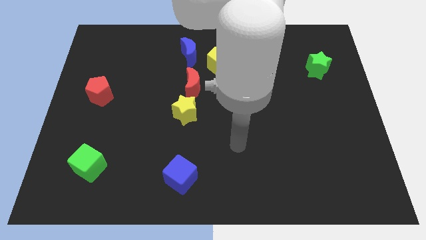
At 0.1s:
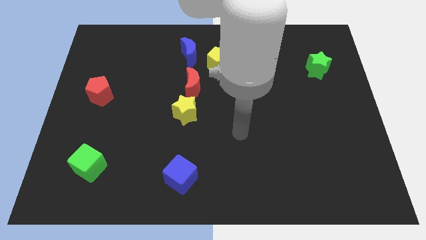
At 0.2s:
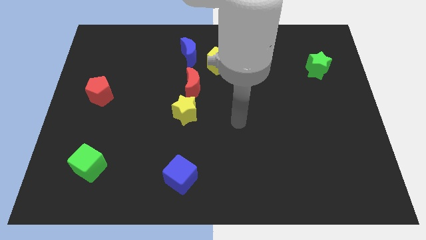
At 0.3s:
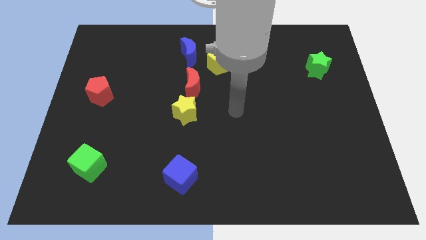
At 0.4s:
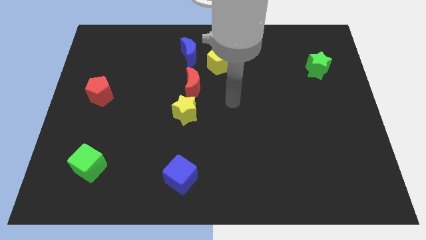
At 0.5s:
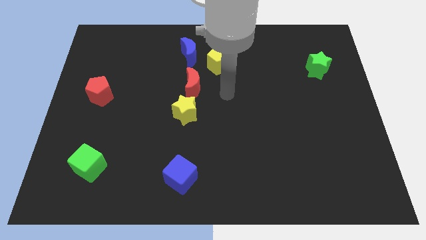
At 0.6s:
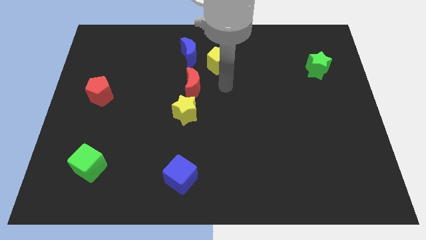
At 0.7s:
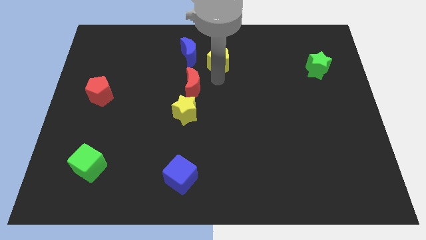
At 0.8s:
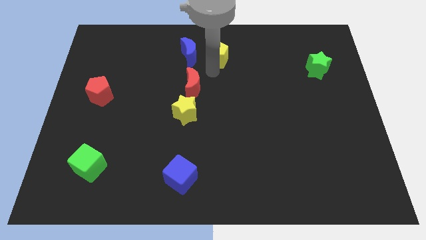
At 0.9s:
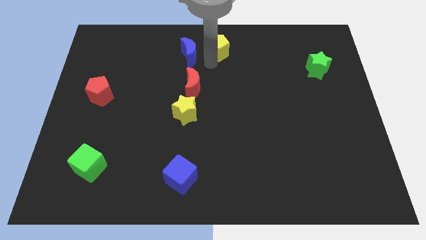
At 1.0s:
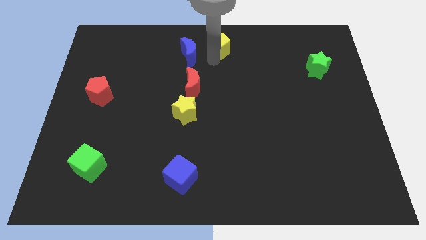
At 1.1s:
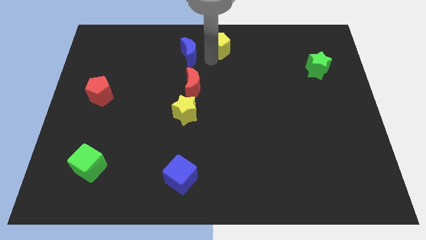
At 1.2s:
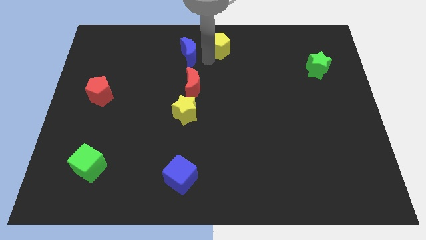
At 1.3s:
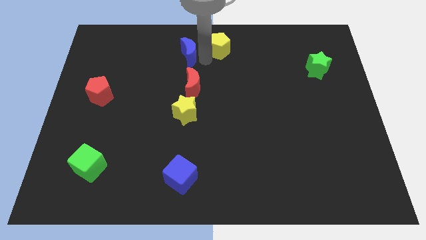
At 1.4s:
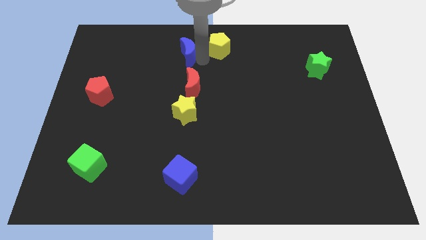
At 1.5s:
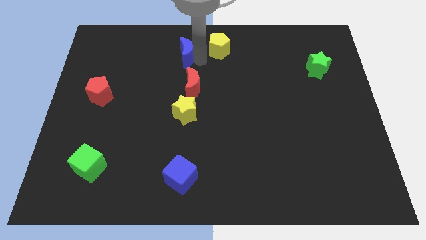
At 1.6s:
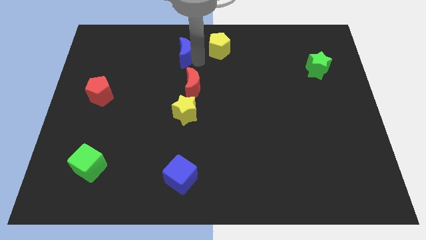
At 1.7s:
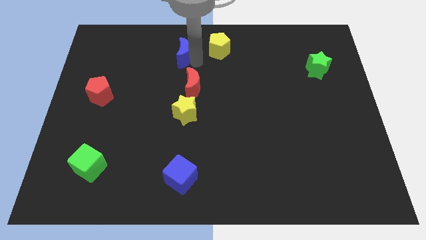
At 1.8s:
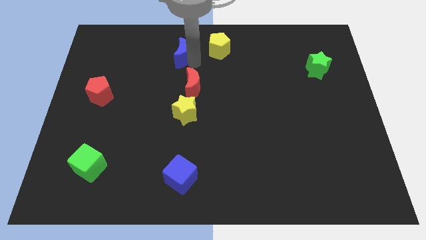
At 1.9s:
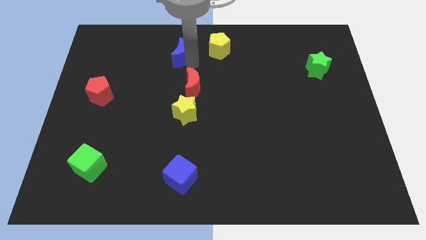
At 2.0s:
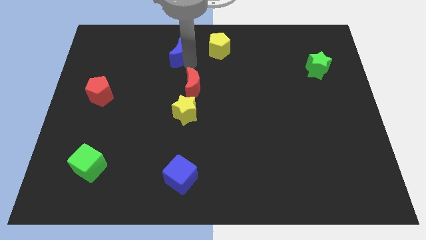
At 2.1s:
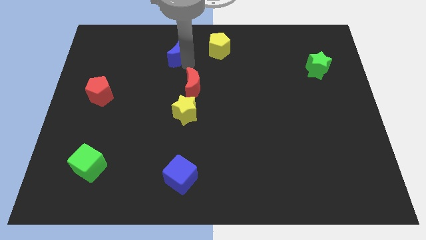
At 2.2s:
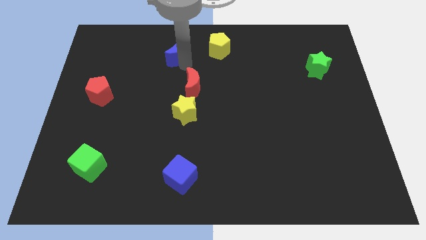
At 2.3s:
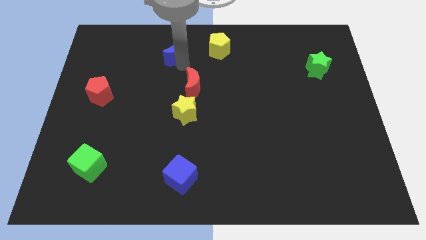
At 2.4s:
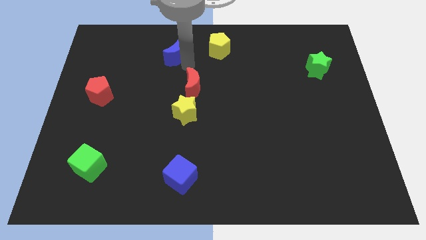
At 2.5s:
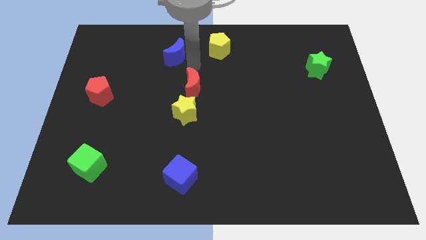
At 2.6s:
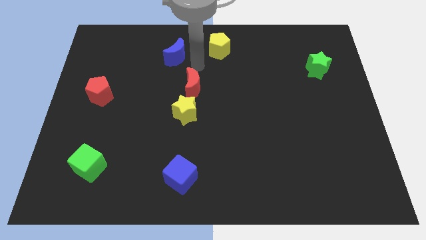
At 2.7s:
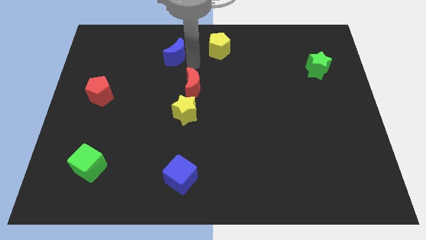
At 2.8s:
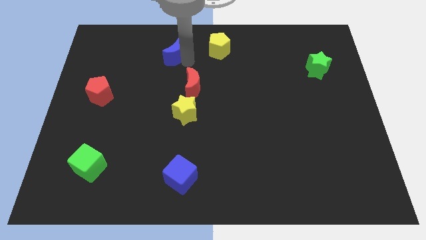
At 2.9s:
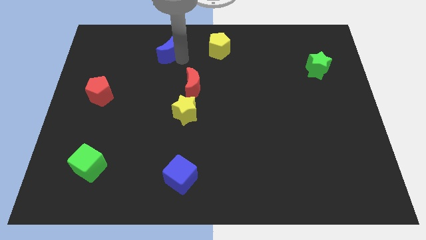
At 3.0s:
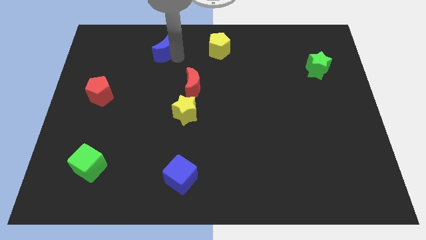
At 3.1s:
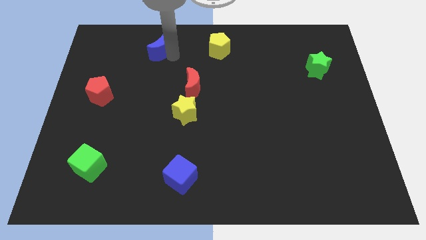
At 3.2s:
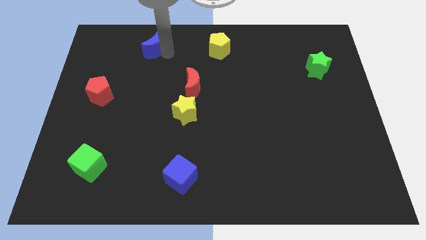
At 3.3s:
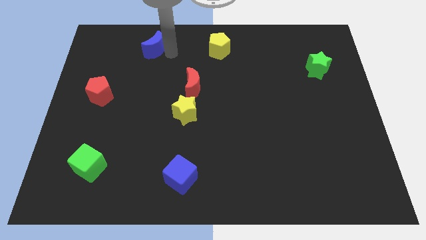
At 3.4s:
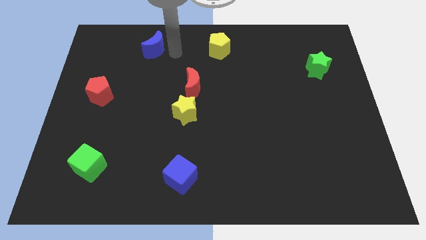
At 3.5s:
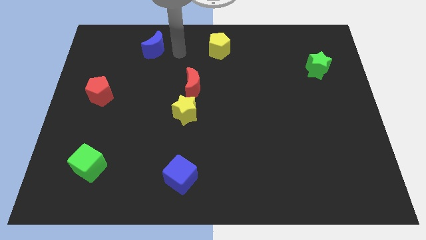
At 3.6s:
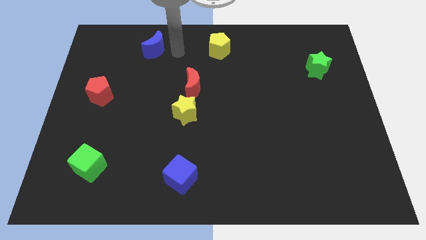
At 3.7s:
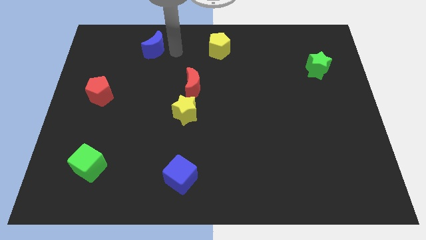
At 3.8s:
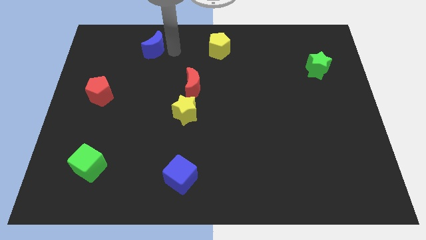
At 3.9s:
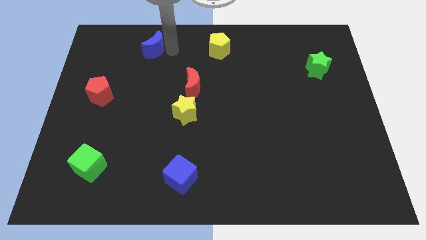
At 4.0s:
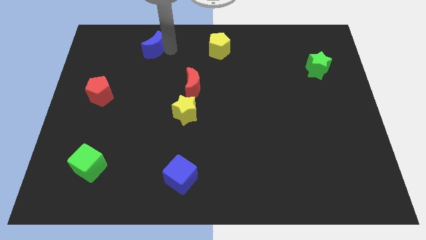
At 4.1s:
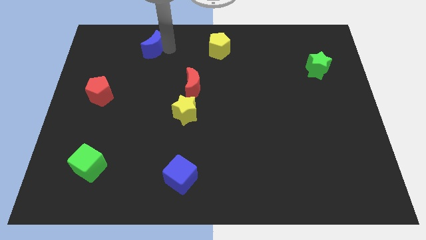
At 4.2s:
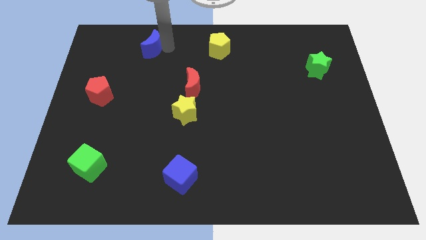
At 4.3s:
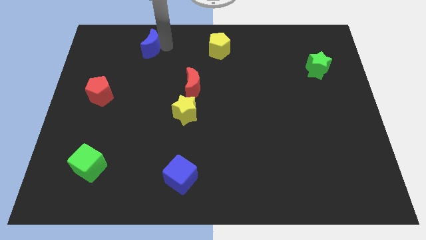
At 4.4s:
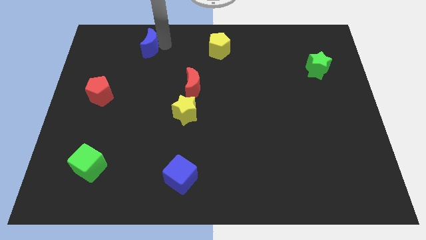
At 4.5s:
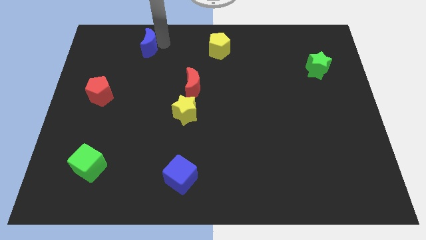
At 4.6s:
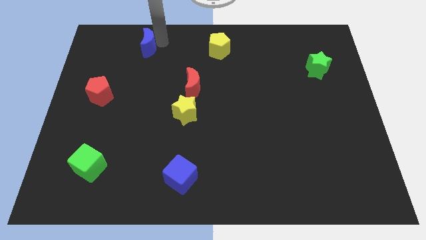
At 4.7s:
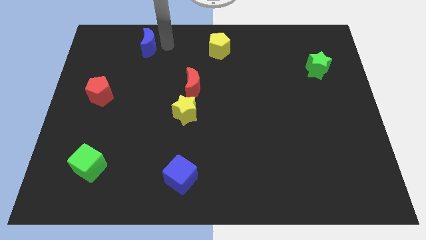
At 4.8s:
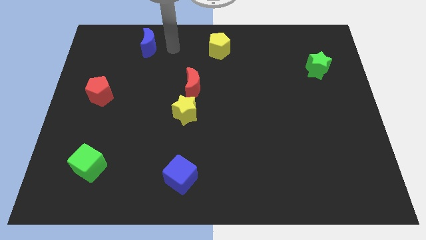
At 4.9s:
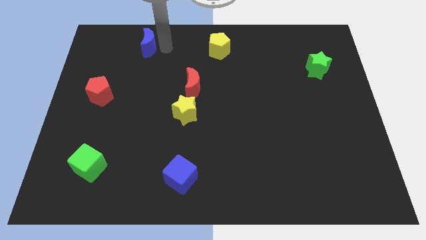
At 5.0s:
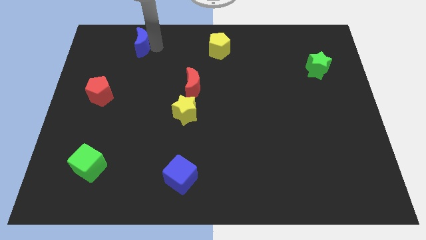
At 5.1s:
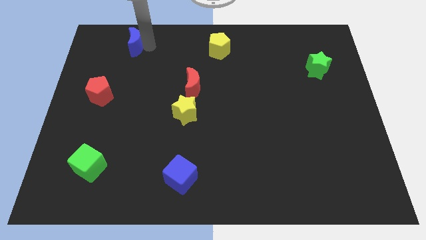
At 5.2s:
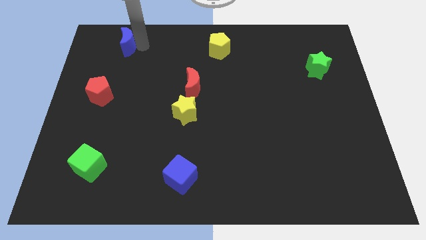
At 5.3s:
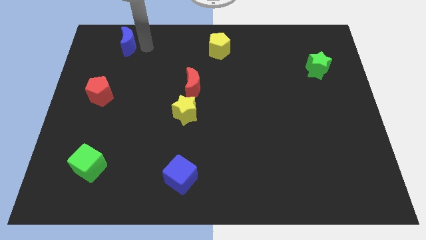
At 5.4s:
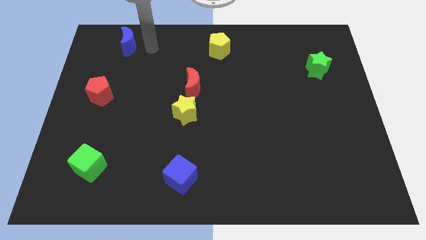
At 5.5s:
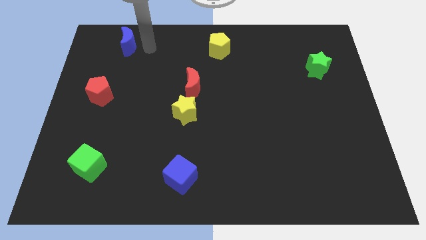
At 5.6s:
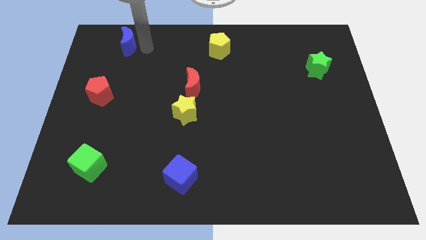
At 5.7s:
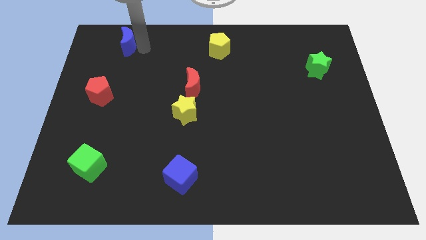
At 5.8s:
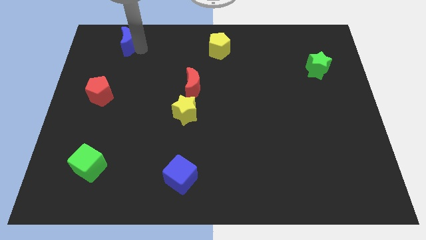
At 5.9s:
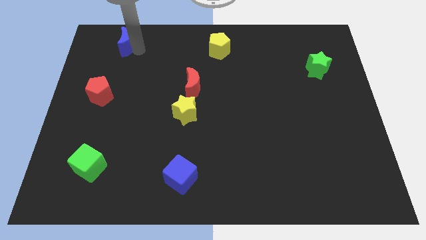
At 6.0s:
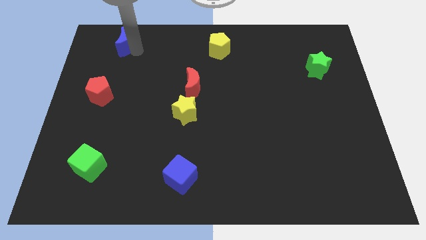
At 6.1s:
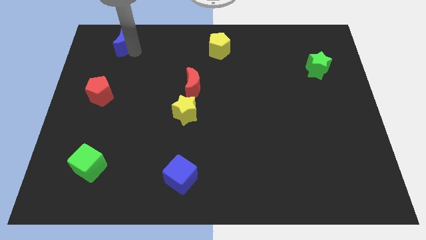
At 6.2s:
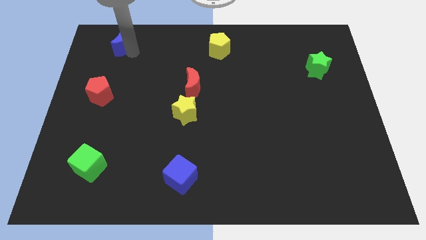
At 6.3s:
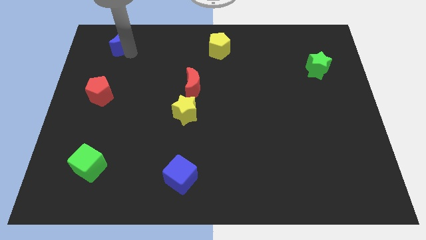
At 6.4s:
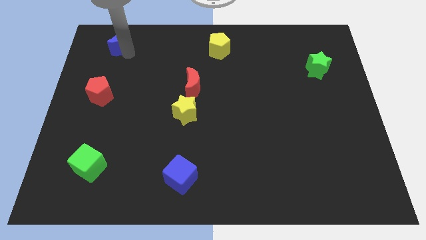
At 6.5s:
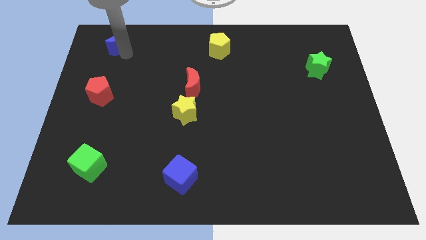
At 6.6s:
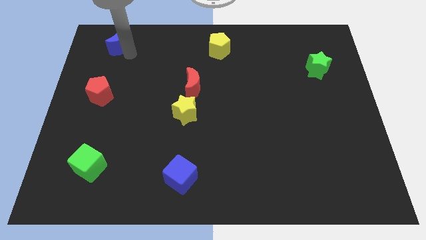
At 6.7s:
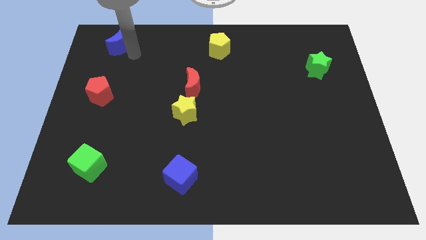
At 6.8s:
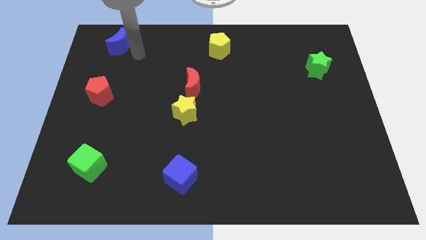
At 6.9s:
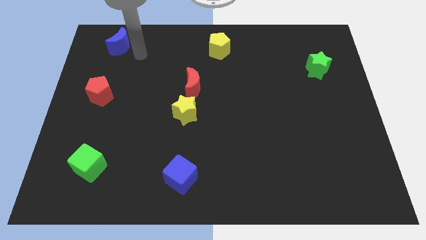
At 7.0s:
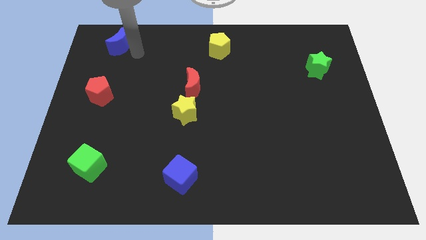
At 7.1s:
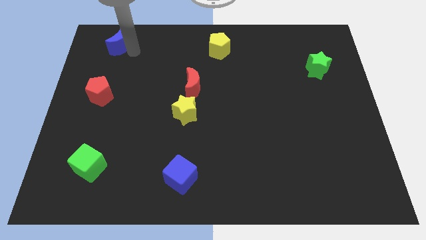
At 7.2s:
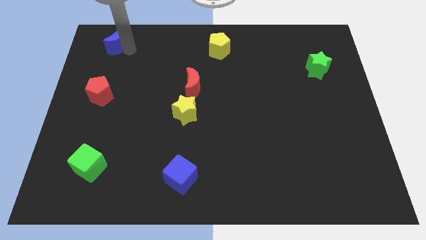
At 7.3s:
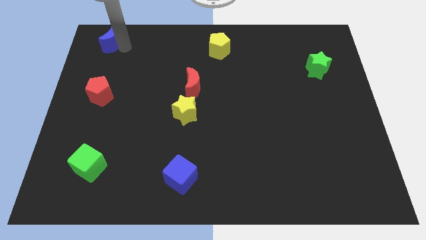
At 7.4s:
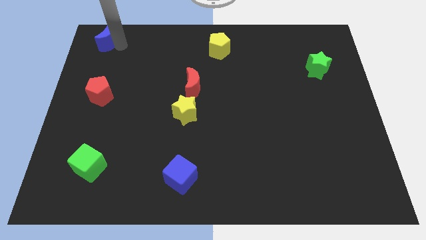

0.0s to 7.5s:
move the blue moon to the upper left corner
